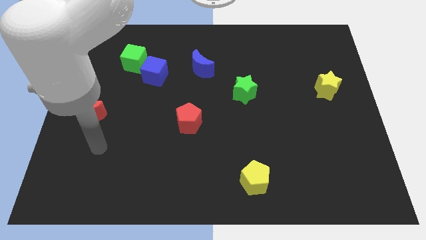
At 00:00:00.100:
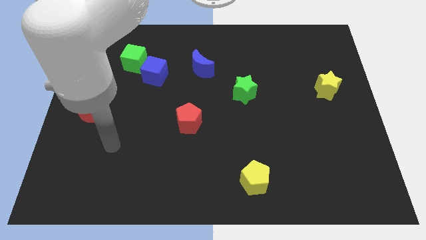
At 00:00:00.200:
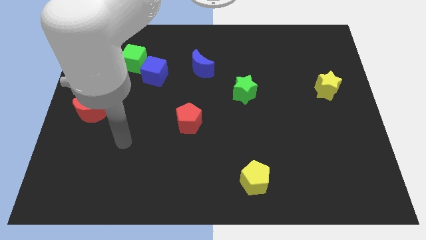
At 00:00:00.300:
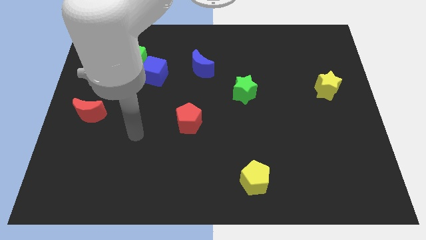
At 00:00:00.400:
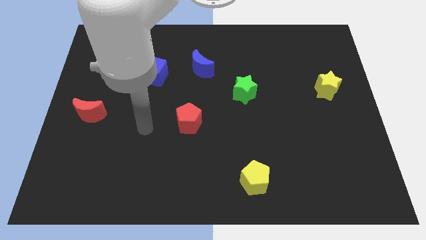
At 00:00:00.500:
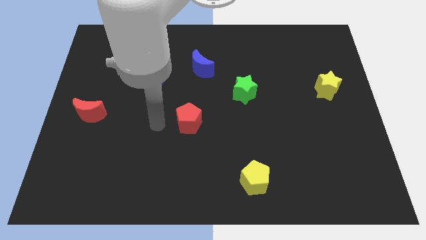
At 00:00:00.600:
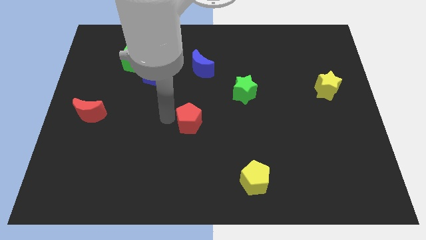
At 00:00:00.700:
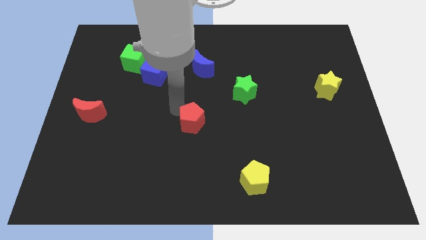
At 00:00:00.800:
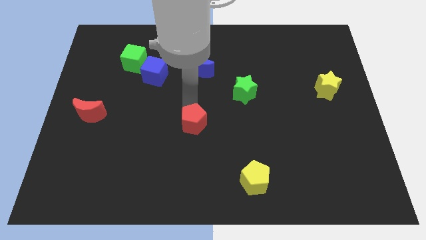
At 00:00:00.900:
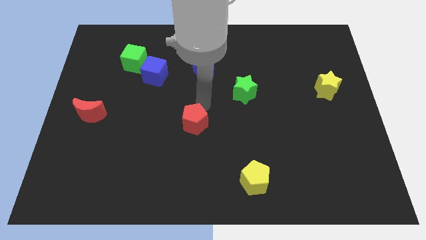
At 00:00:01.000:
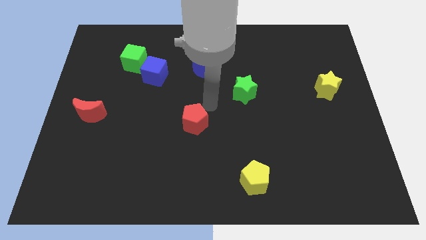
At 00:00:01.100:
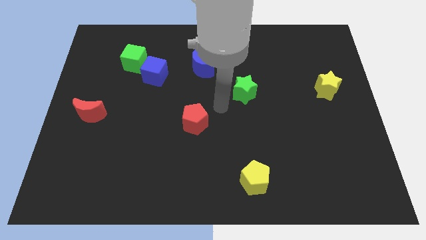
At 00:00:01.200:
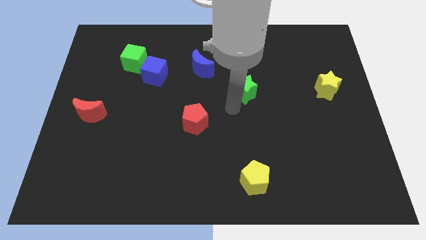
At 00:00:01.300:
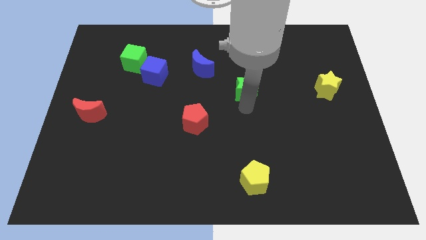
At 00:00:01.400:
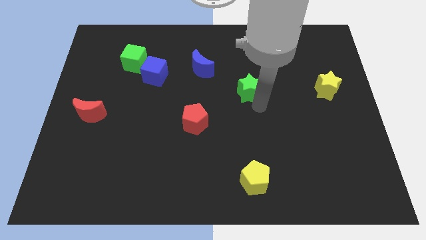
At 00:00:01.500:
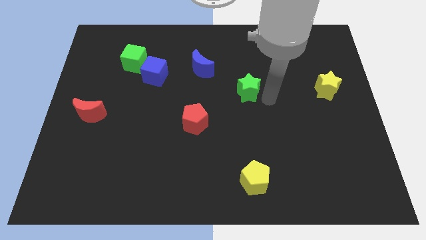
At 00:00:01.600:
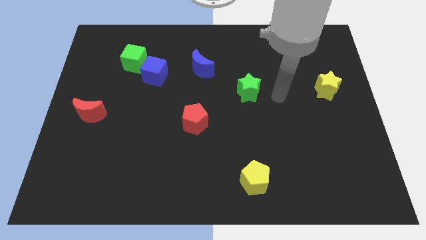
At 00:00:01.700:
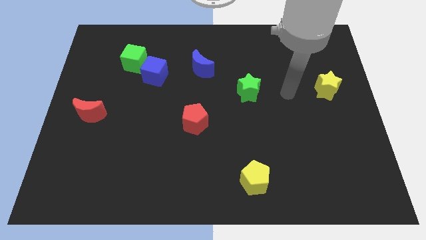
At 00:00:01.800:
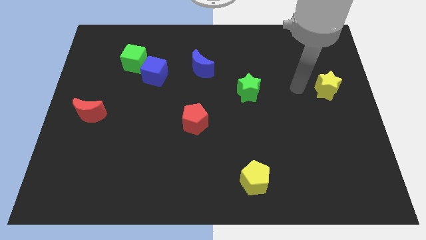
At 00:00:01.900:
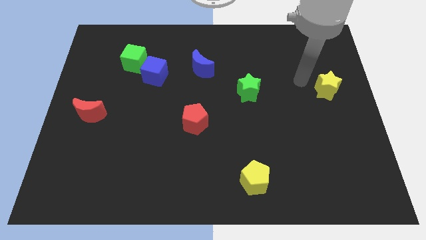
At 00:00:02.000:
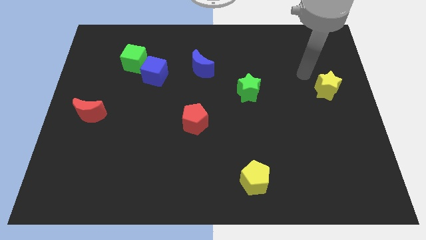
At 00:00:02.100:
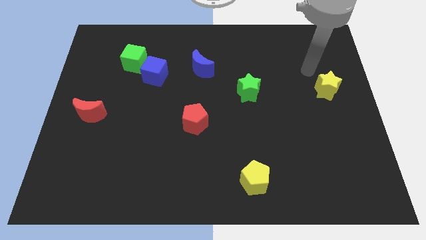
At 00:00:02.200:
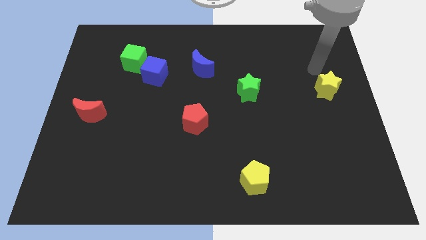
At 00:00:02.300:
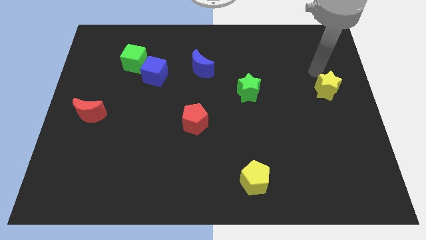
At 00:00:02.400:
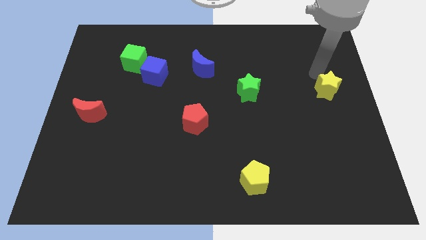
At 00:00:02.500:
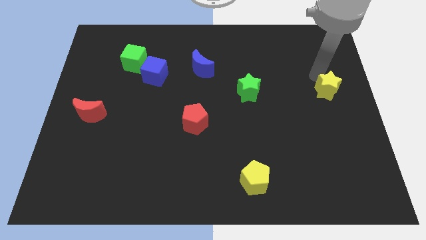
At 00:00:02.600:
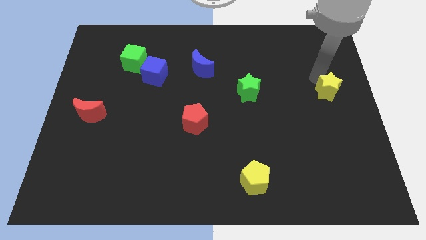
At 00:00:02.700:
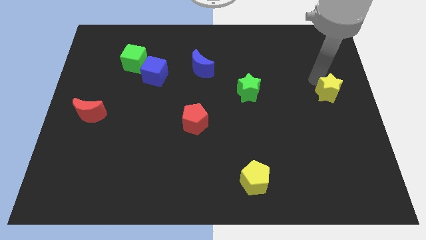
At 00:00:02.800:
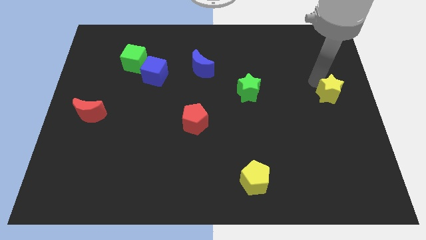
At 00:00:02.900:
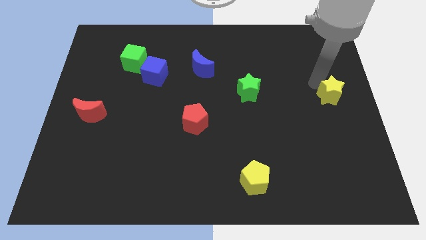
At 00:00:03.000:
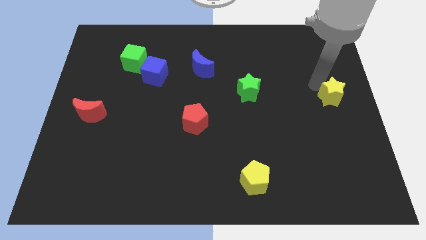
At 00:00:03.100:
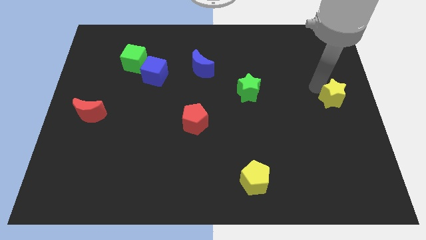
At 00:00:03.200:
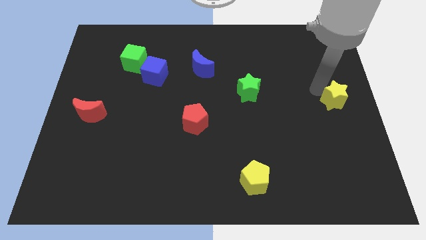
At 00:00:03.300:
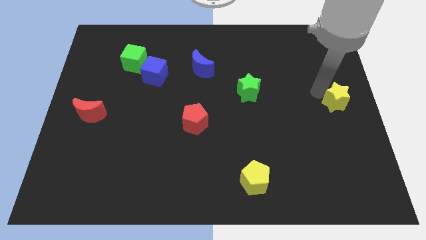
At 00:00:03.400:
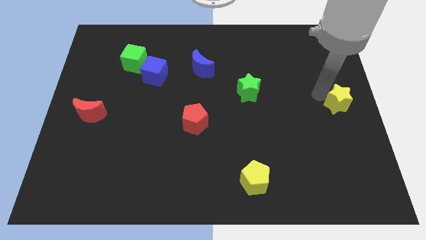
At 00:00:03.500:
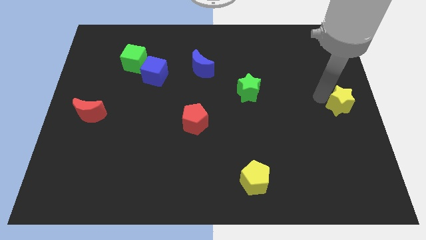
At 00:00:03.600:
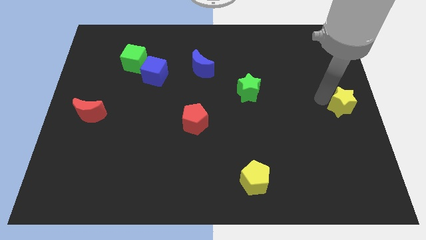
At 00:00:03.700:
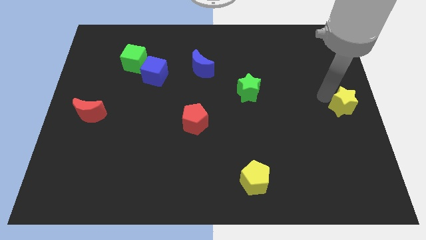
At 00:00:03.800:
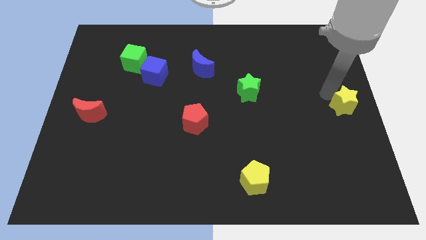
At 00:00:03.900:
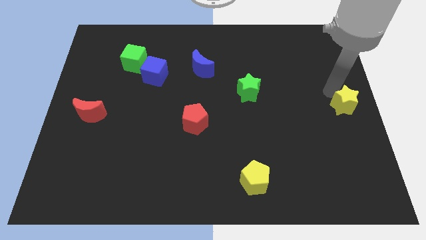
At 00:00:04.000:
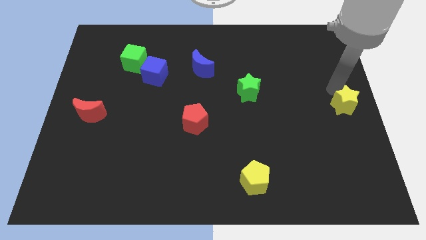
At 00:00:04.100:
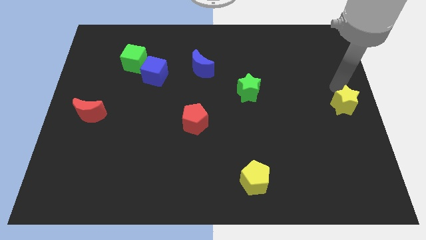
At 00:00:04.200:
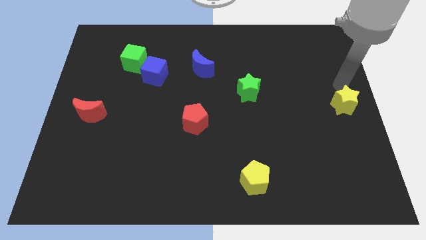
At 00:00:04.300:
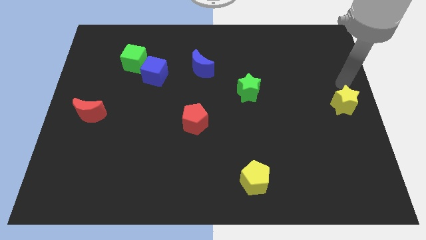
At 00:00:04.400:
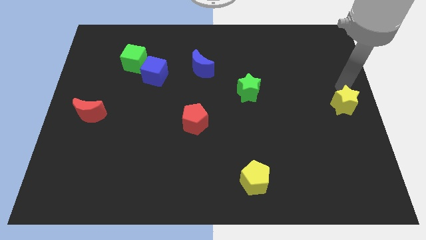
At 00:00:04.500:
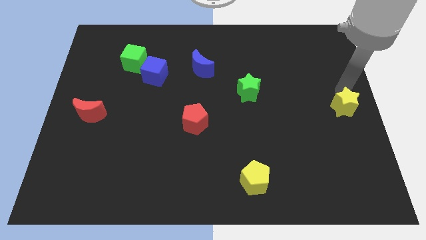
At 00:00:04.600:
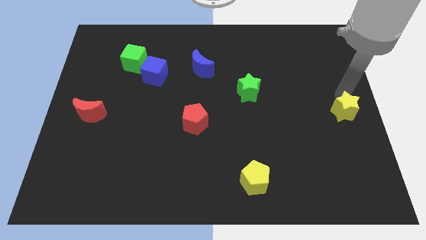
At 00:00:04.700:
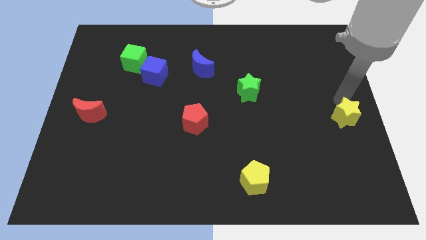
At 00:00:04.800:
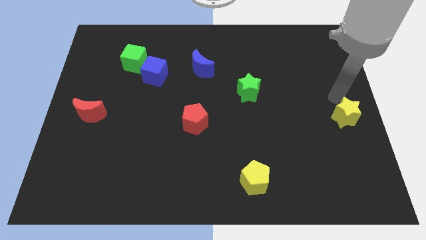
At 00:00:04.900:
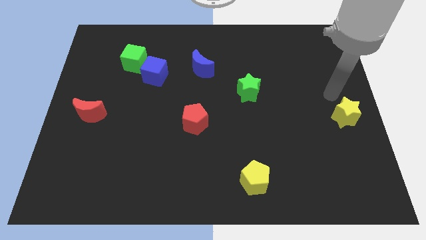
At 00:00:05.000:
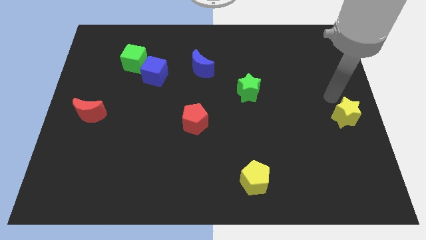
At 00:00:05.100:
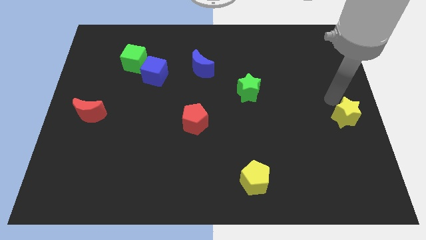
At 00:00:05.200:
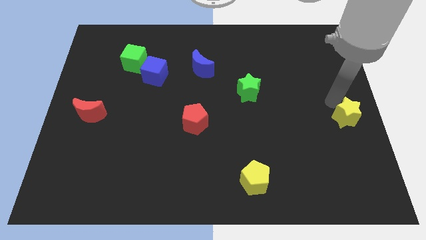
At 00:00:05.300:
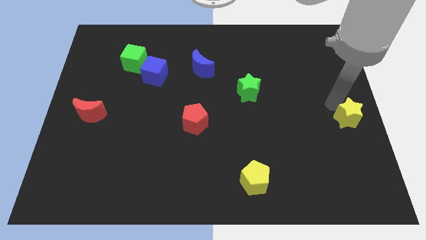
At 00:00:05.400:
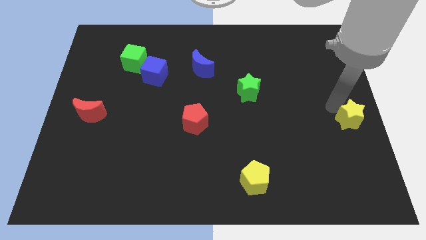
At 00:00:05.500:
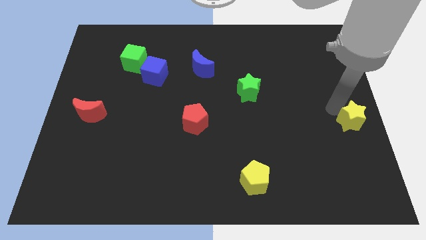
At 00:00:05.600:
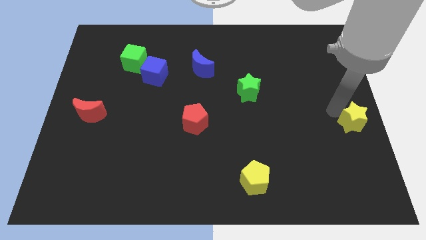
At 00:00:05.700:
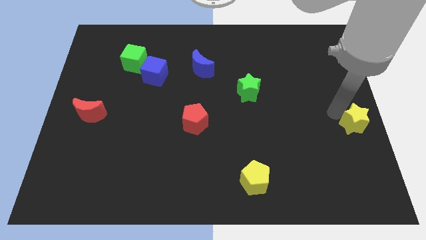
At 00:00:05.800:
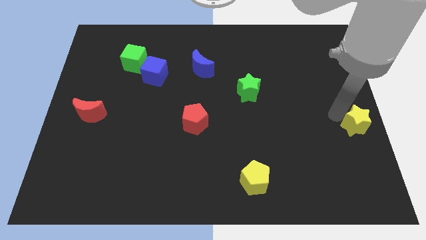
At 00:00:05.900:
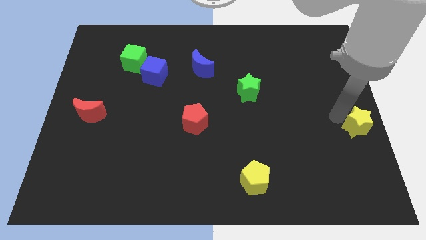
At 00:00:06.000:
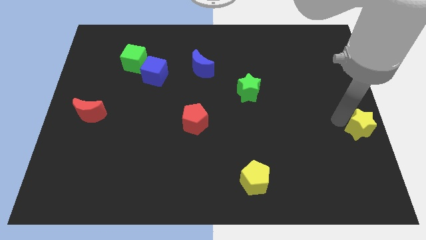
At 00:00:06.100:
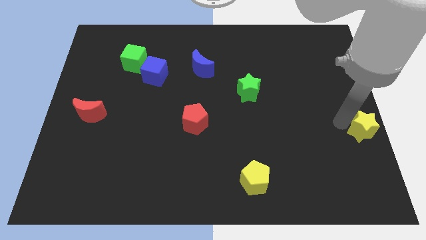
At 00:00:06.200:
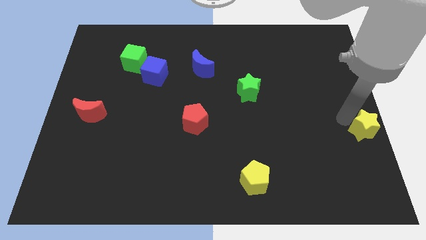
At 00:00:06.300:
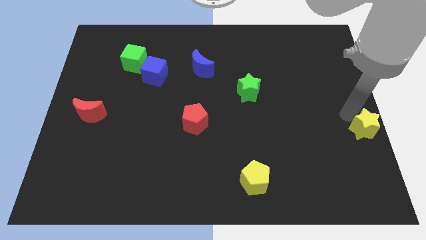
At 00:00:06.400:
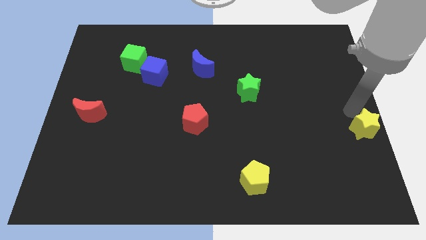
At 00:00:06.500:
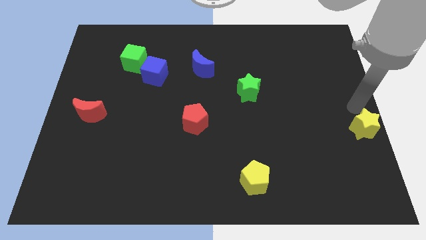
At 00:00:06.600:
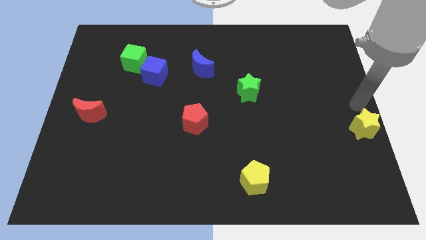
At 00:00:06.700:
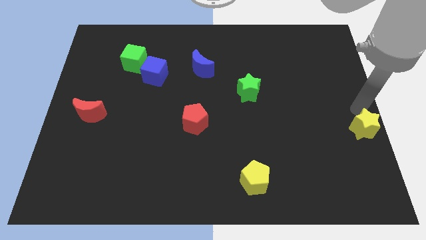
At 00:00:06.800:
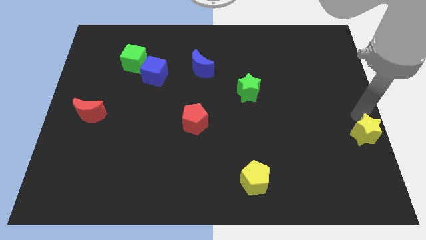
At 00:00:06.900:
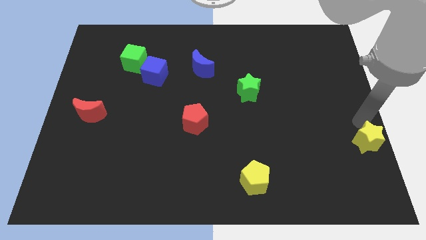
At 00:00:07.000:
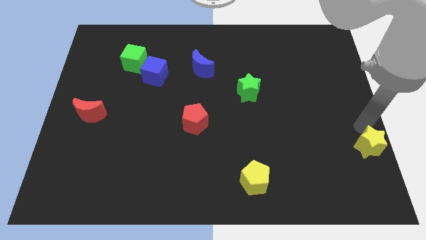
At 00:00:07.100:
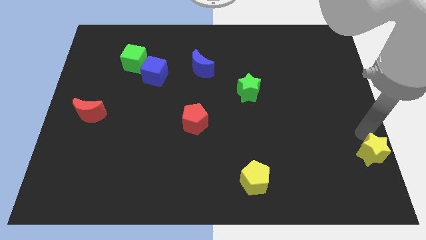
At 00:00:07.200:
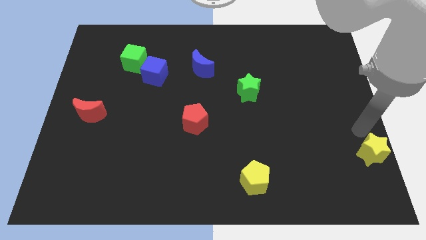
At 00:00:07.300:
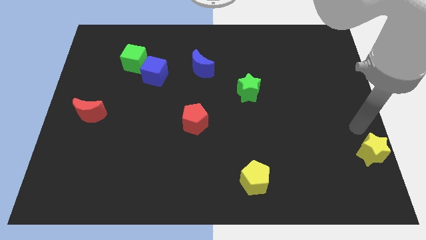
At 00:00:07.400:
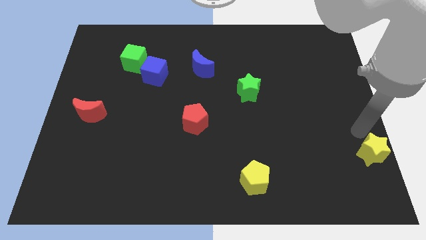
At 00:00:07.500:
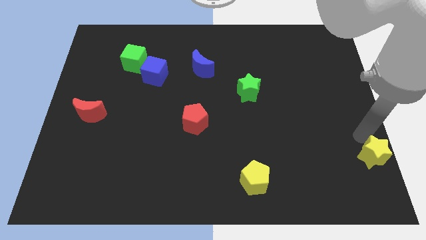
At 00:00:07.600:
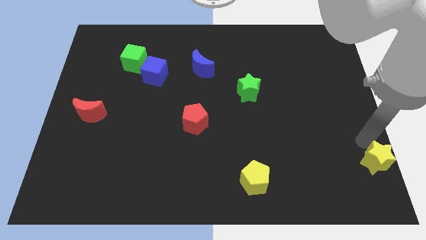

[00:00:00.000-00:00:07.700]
push the yellow star to the bottom right
